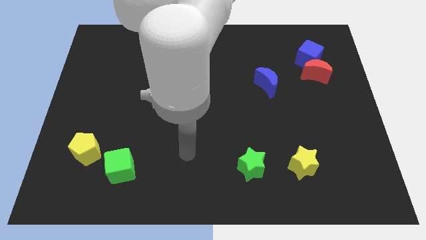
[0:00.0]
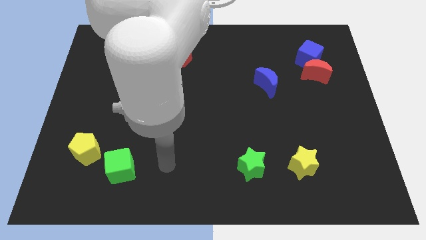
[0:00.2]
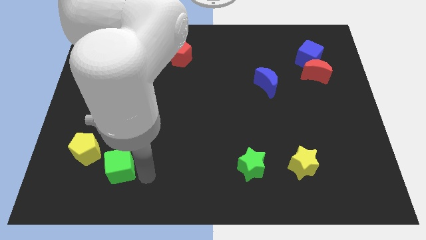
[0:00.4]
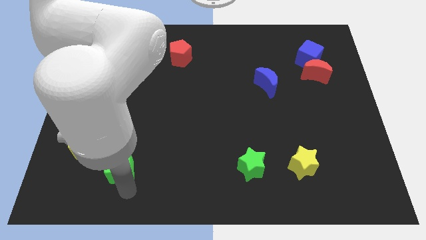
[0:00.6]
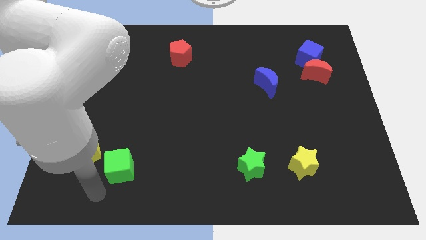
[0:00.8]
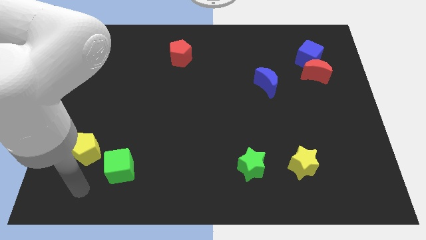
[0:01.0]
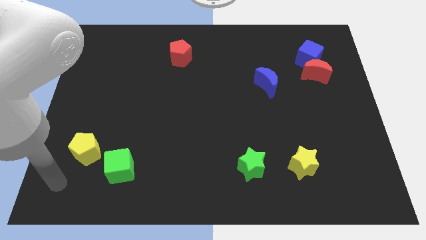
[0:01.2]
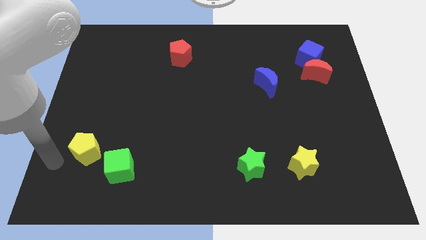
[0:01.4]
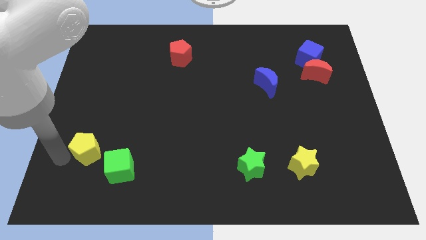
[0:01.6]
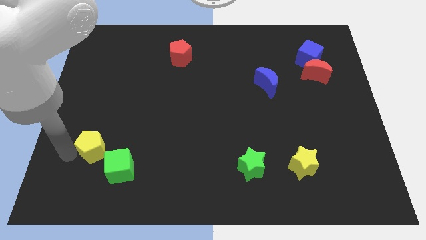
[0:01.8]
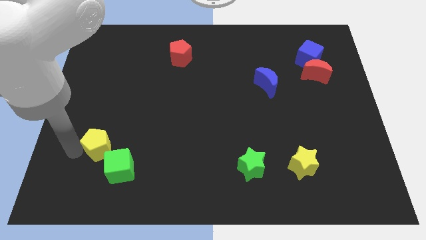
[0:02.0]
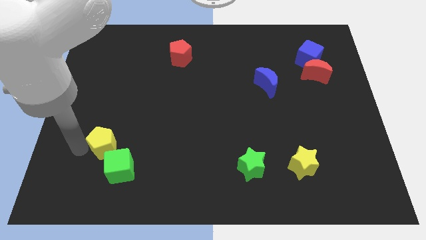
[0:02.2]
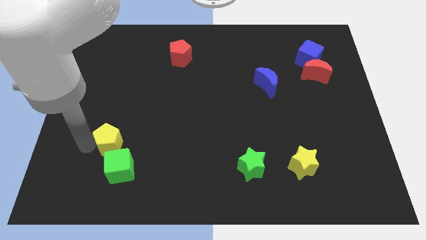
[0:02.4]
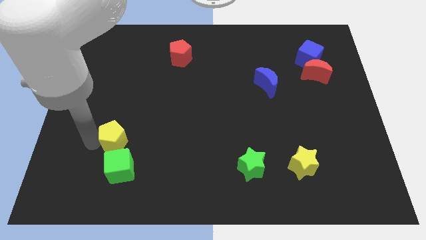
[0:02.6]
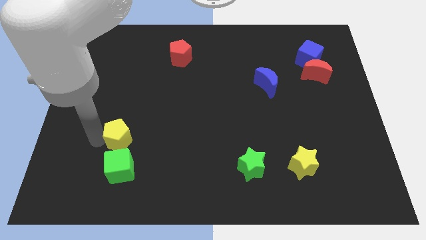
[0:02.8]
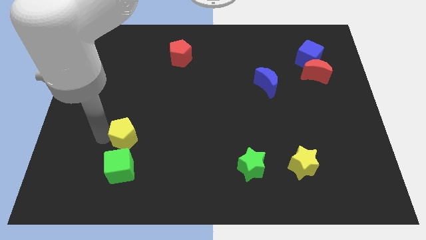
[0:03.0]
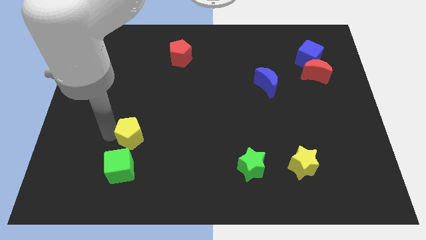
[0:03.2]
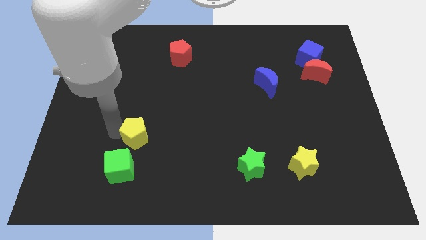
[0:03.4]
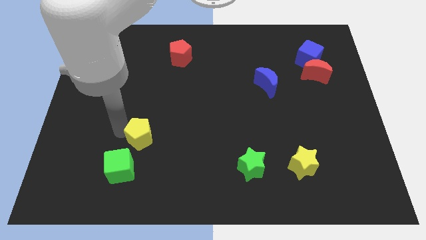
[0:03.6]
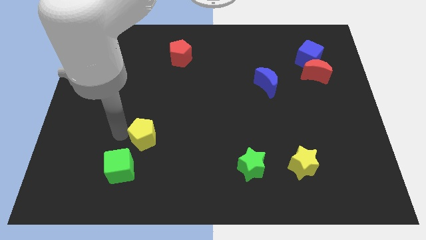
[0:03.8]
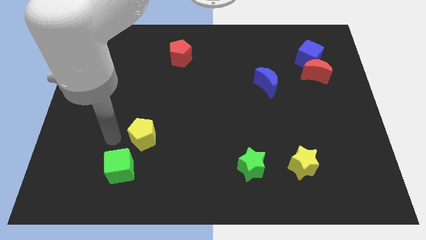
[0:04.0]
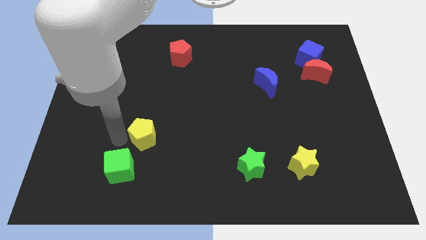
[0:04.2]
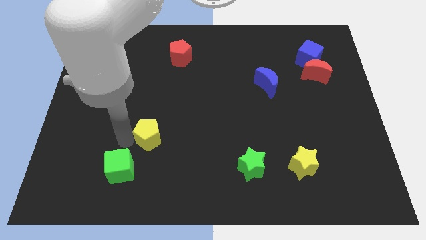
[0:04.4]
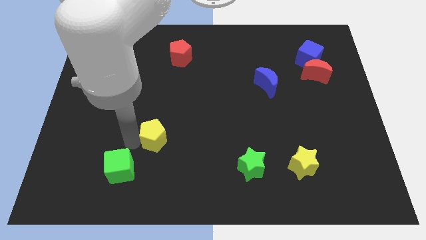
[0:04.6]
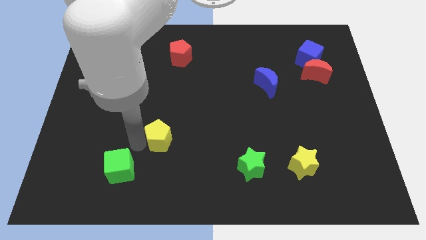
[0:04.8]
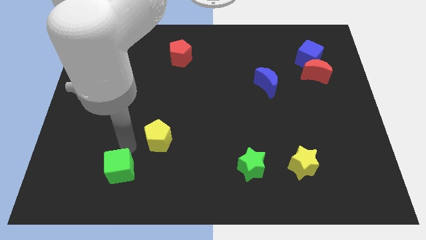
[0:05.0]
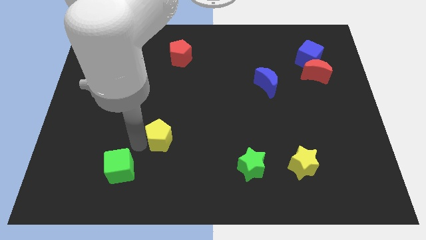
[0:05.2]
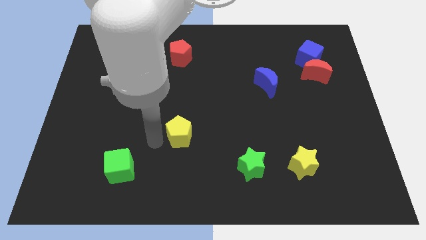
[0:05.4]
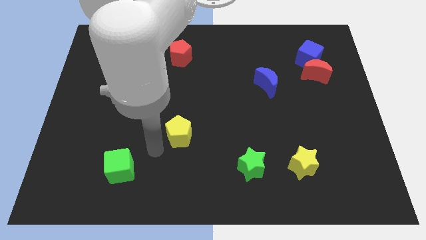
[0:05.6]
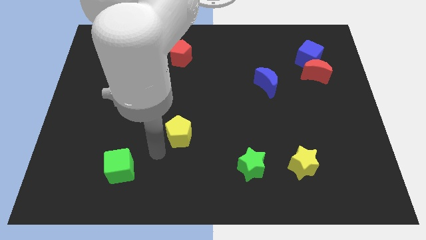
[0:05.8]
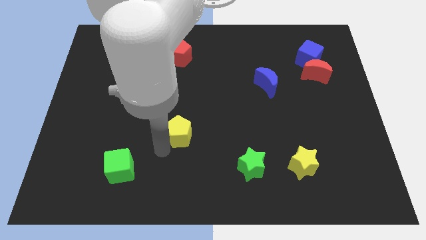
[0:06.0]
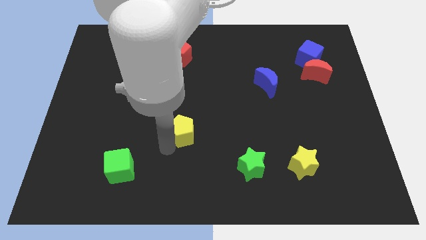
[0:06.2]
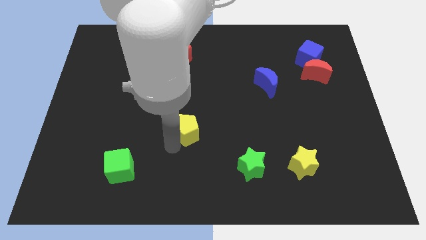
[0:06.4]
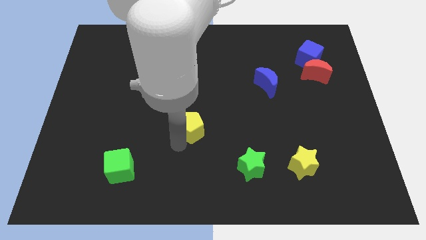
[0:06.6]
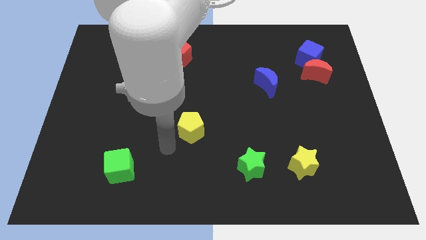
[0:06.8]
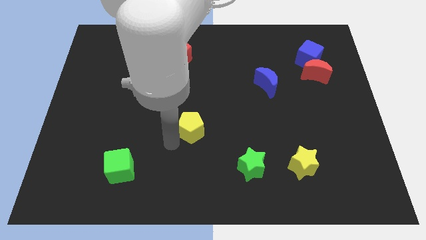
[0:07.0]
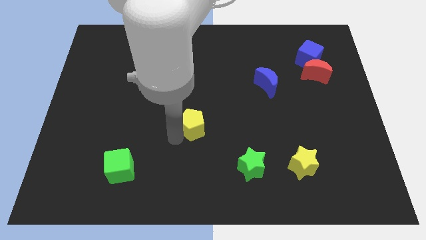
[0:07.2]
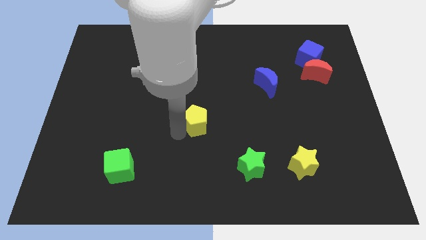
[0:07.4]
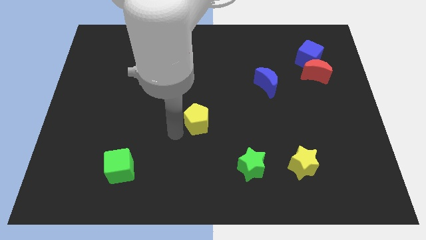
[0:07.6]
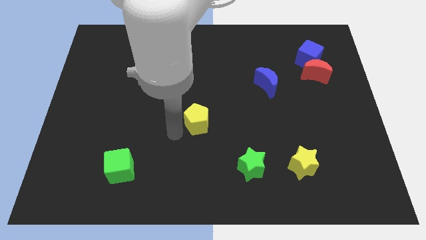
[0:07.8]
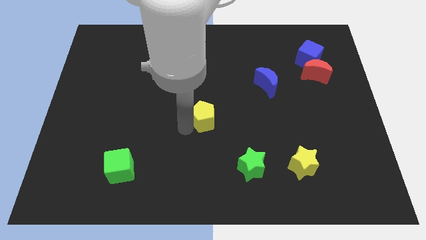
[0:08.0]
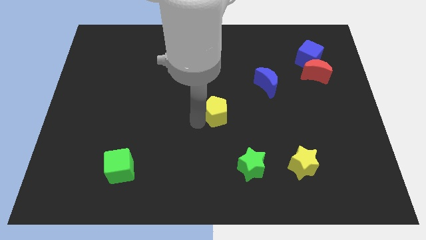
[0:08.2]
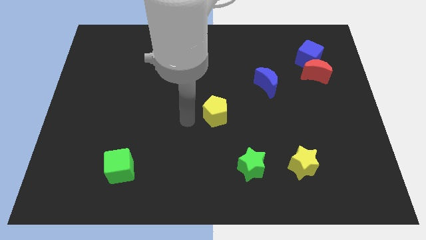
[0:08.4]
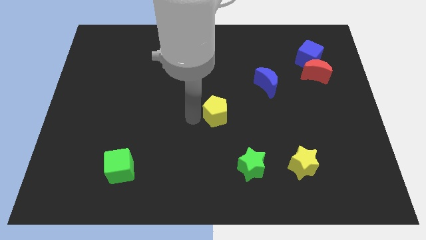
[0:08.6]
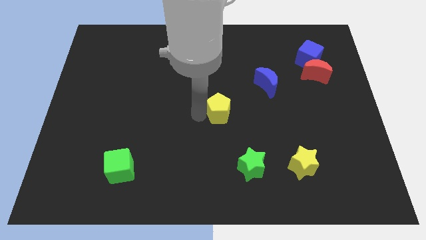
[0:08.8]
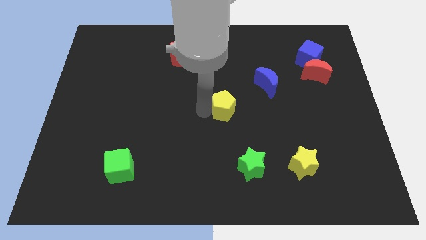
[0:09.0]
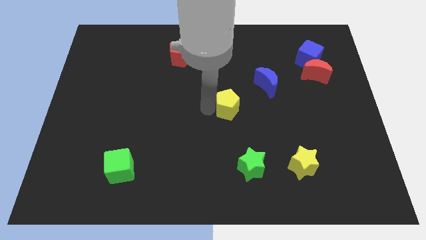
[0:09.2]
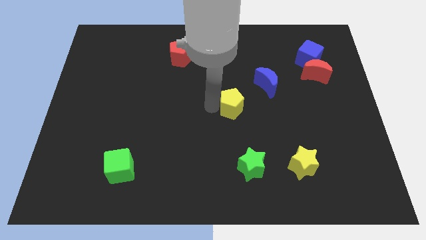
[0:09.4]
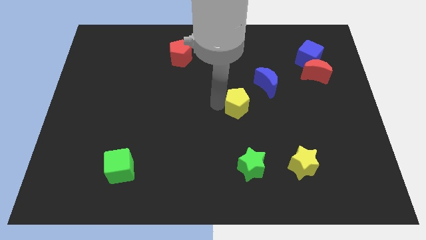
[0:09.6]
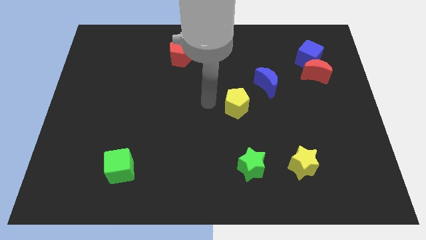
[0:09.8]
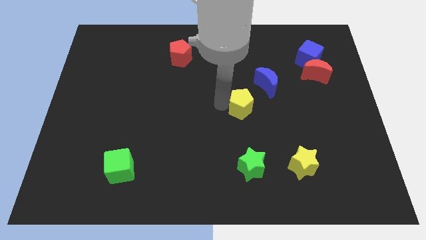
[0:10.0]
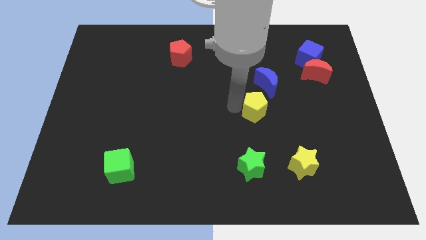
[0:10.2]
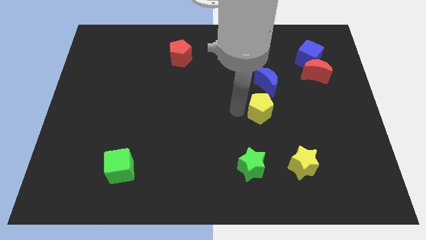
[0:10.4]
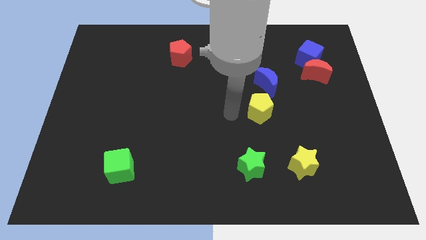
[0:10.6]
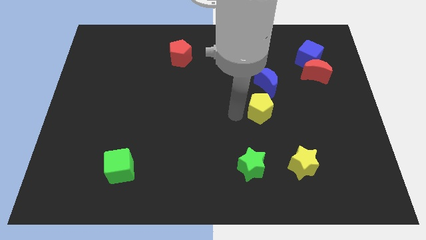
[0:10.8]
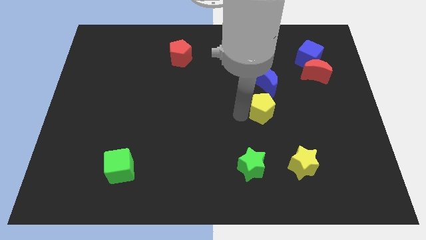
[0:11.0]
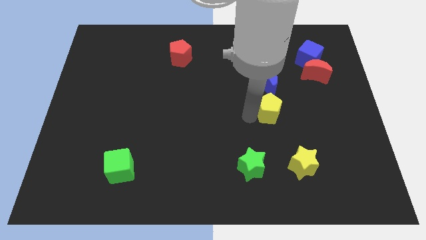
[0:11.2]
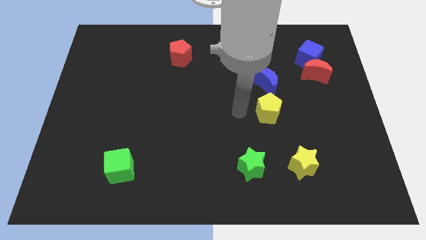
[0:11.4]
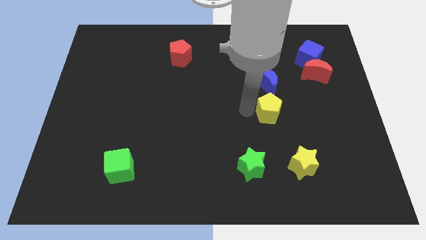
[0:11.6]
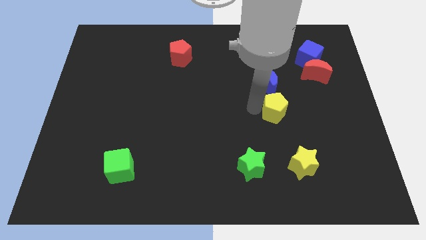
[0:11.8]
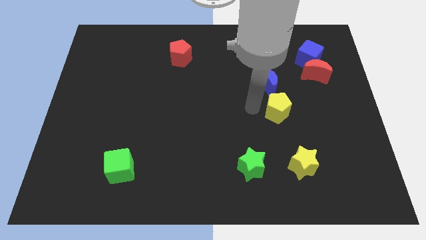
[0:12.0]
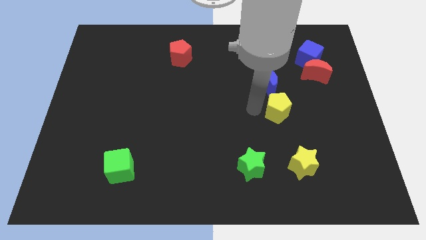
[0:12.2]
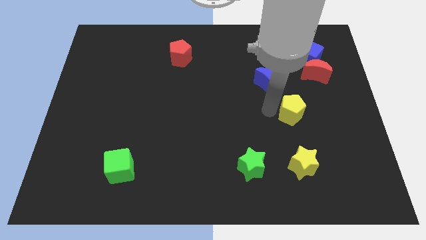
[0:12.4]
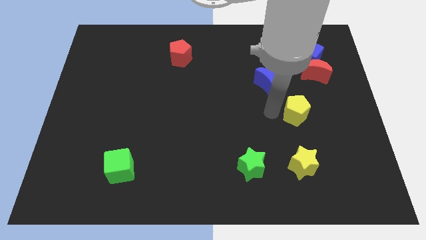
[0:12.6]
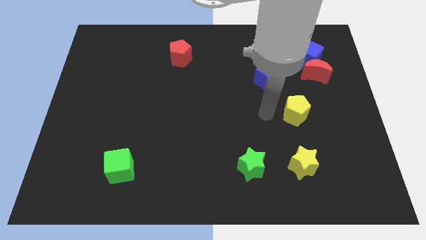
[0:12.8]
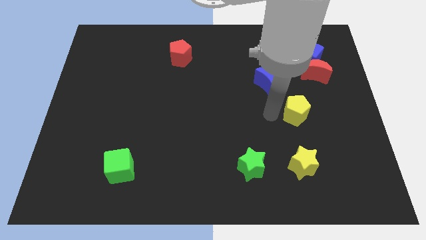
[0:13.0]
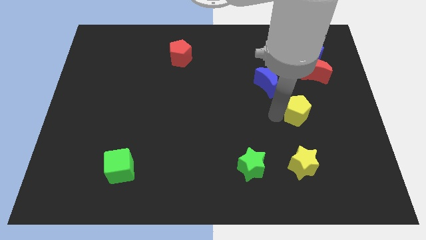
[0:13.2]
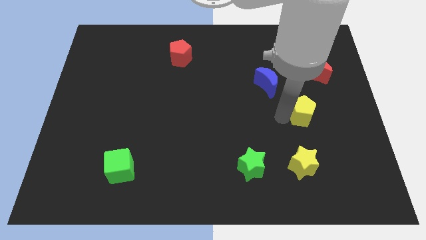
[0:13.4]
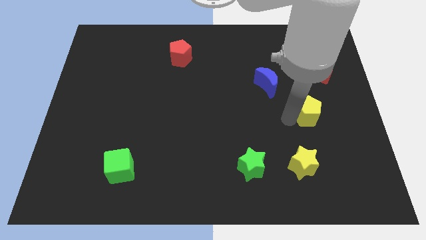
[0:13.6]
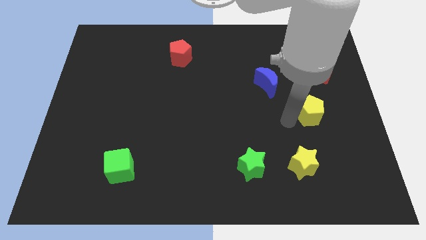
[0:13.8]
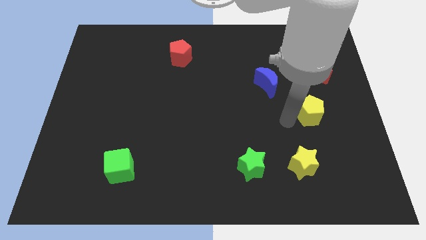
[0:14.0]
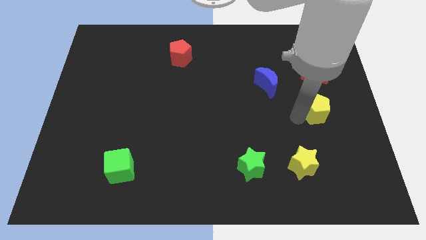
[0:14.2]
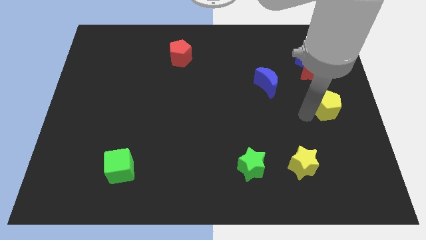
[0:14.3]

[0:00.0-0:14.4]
push the yellow pentagon to the right side
